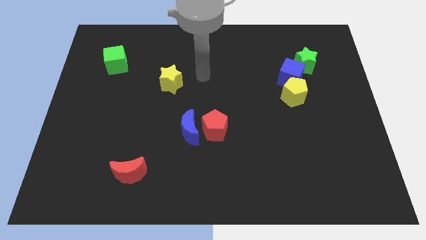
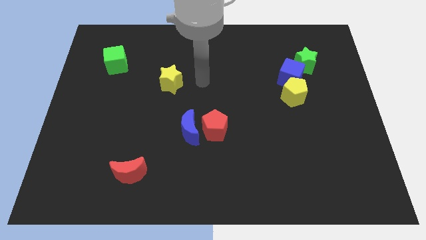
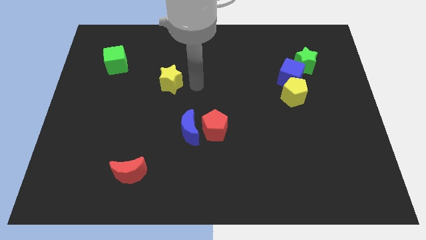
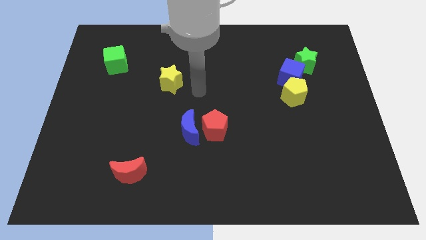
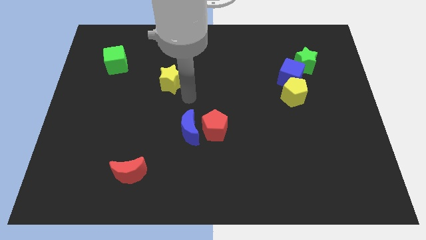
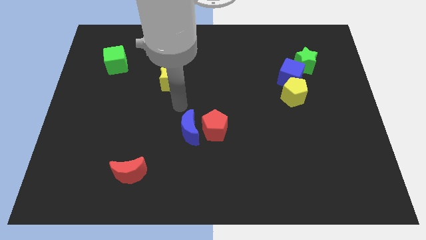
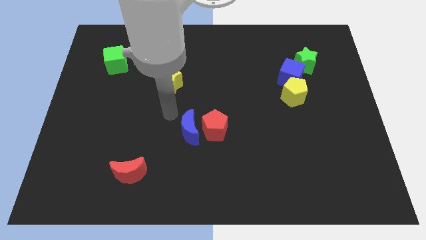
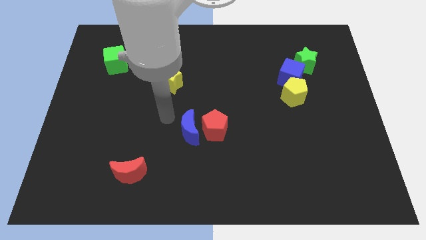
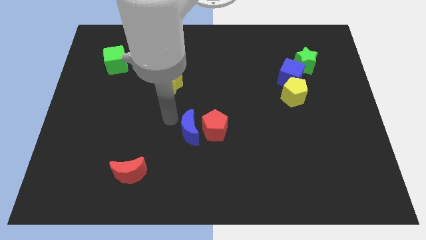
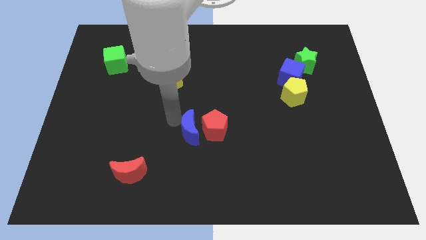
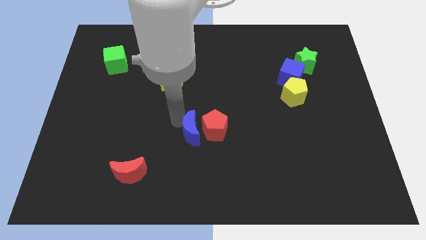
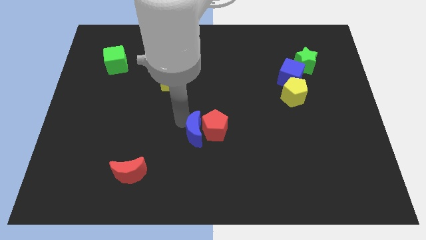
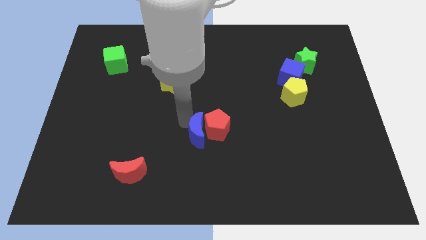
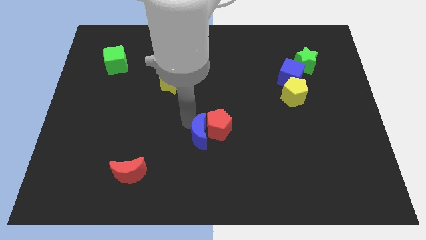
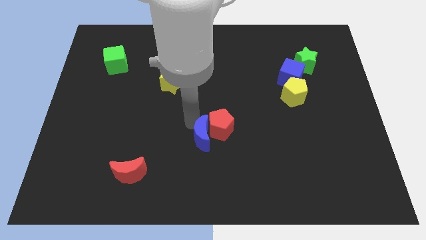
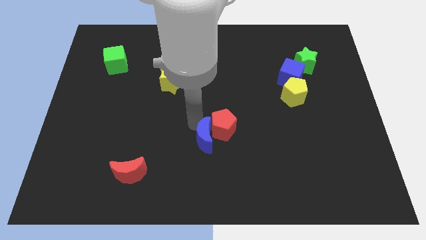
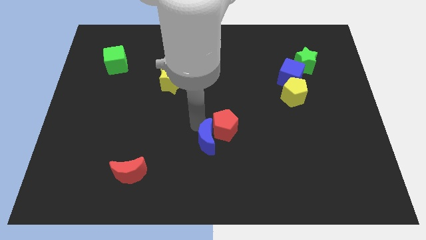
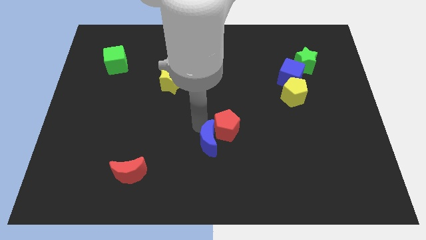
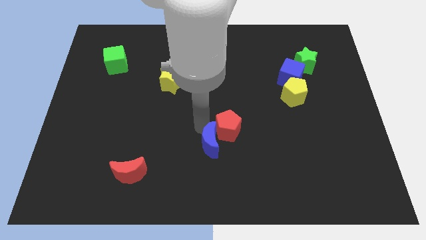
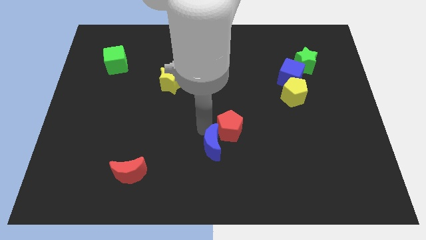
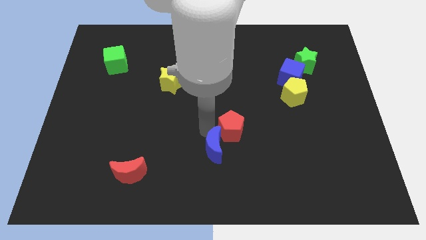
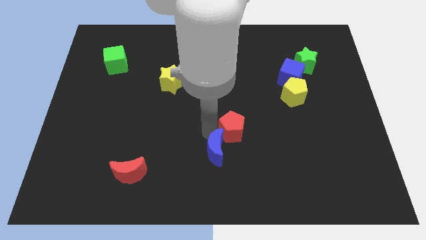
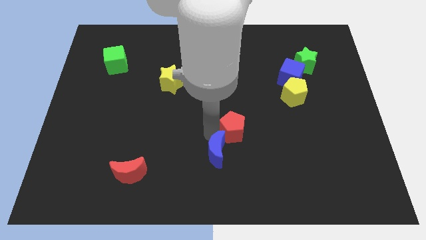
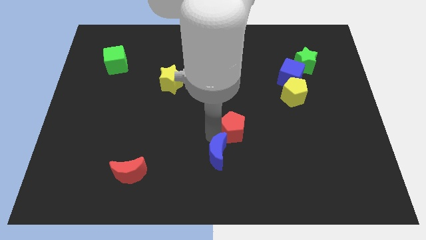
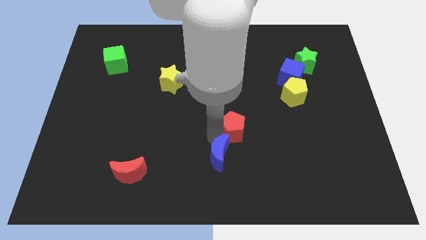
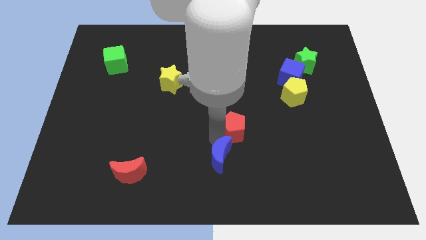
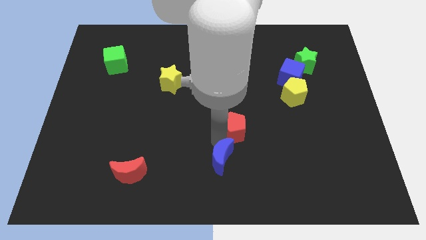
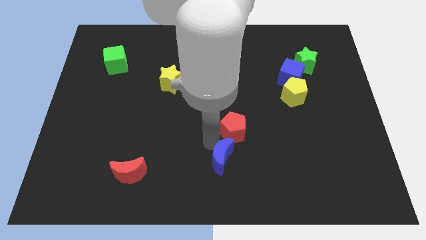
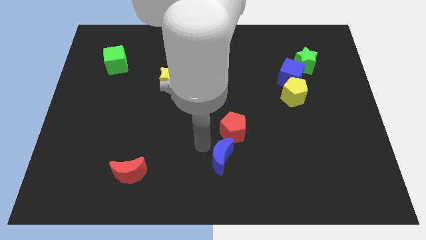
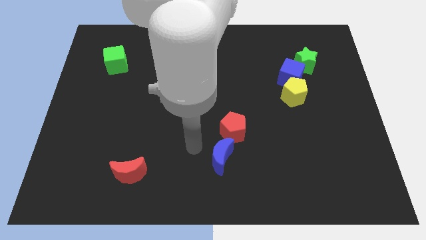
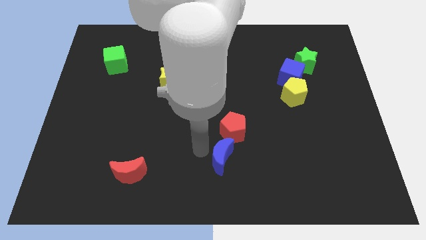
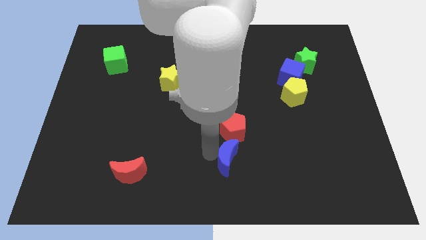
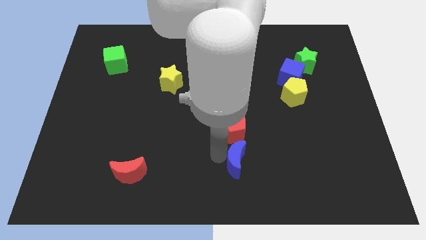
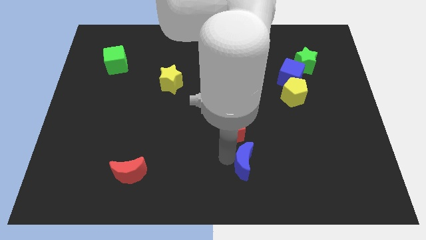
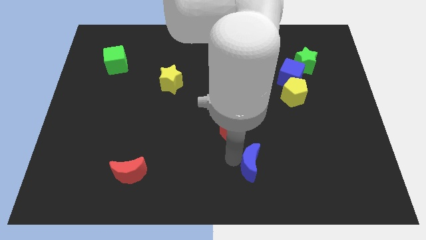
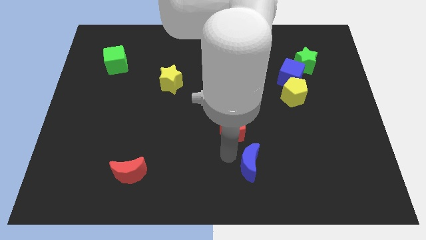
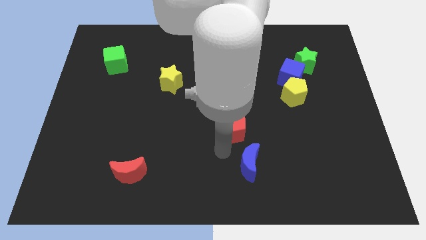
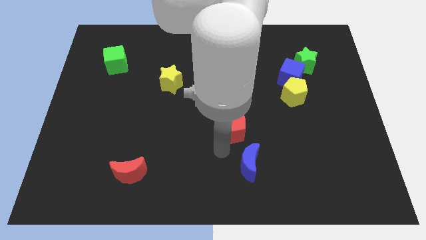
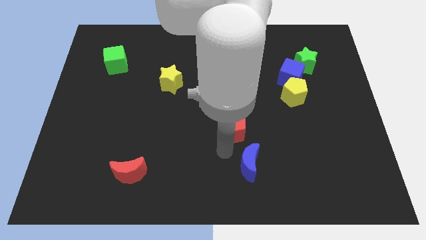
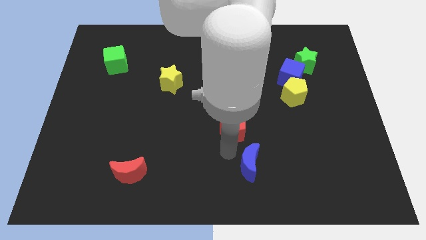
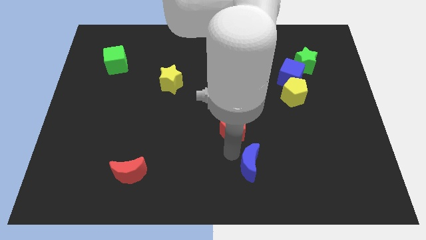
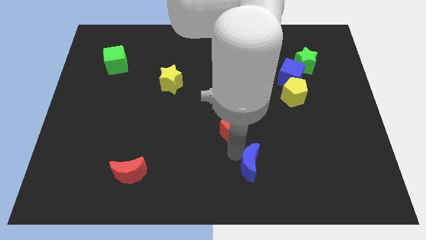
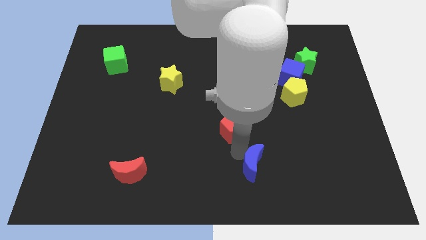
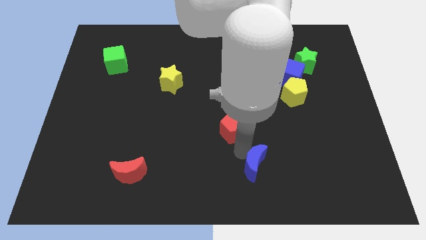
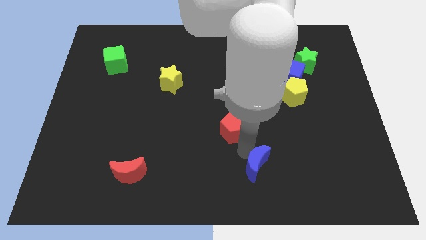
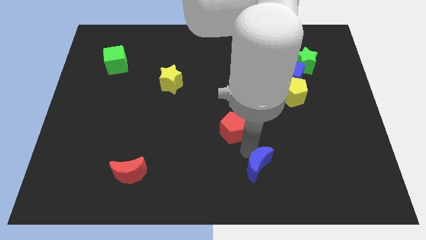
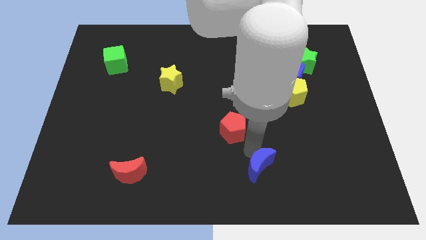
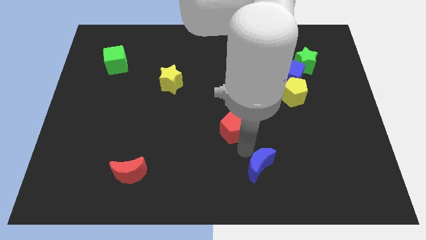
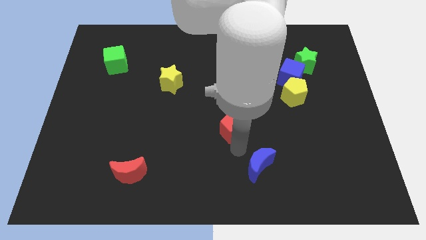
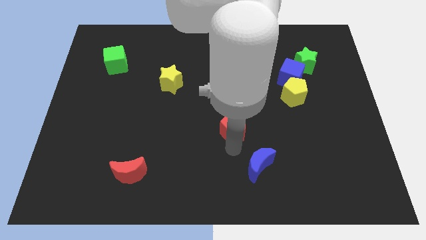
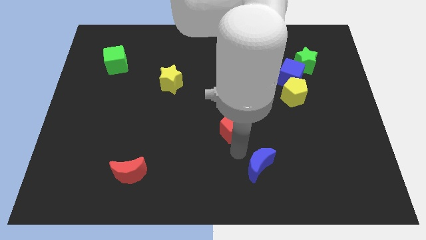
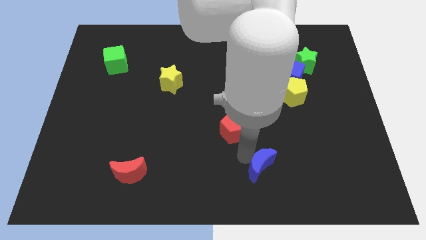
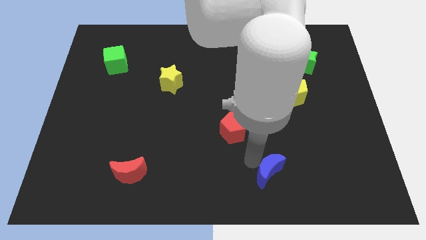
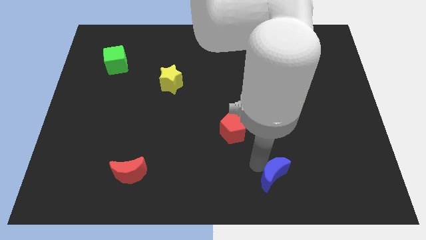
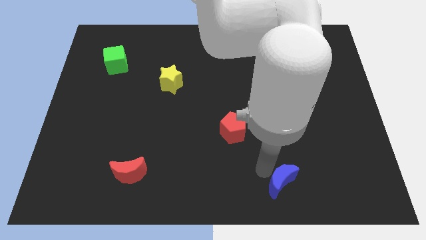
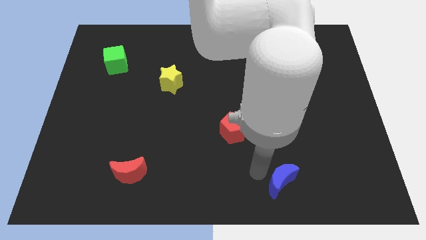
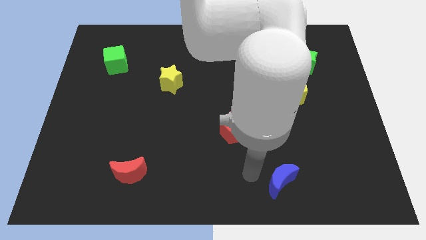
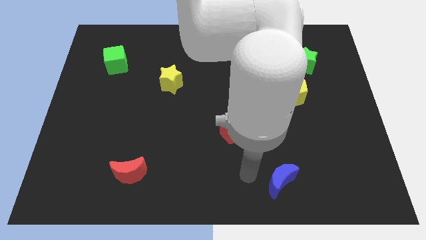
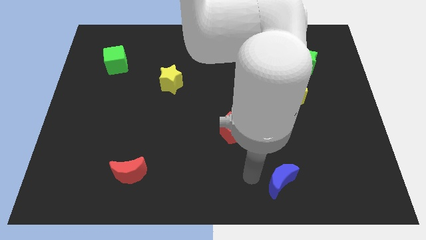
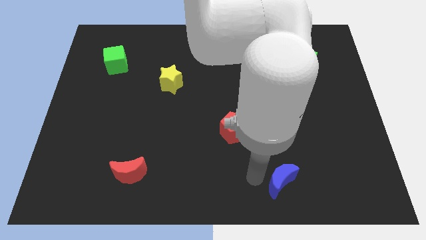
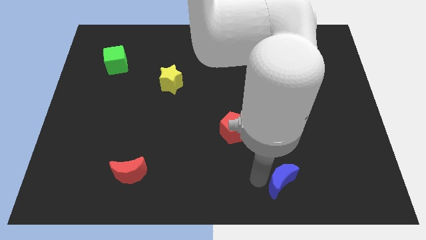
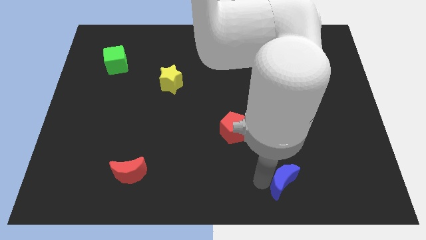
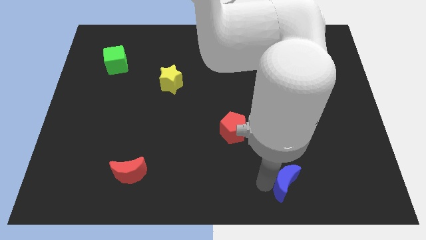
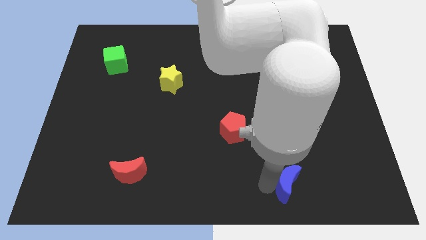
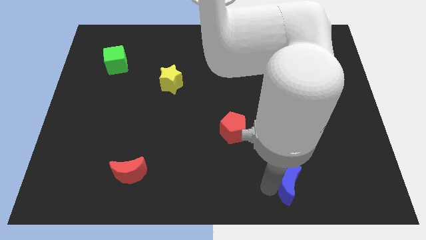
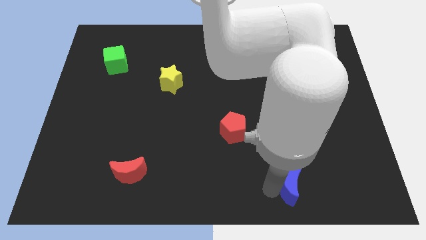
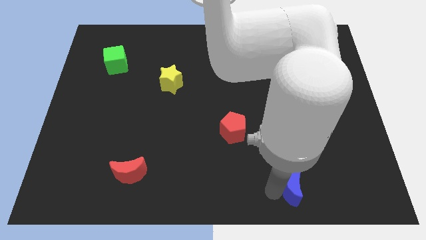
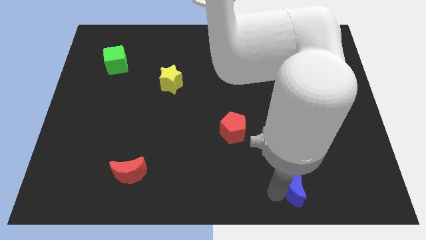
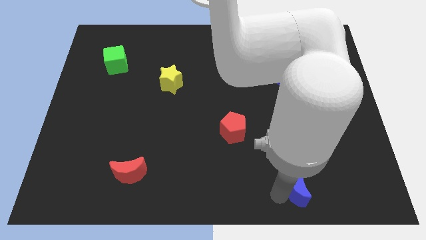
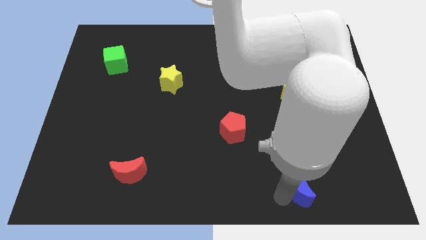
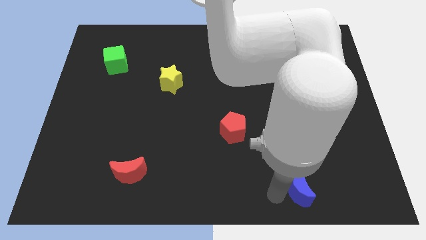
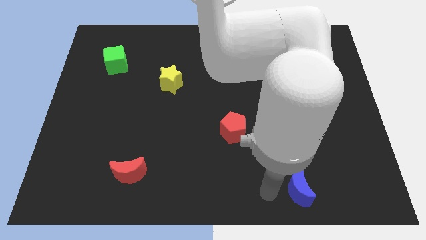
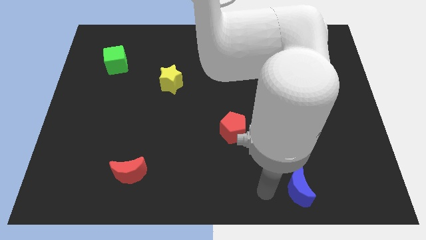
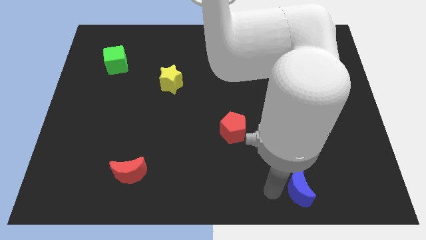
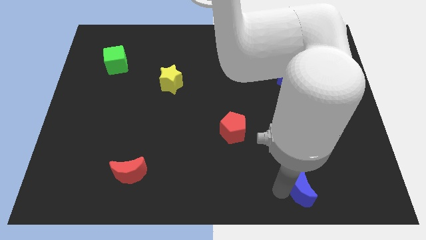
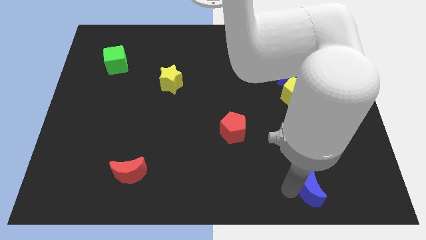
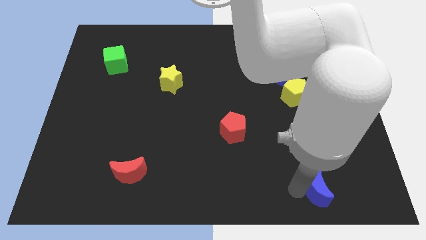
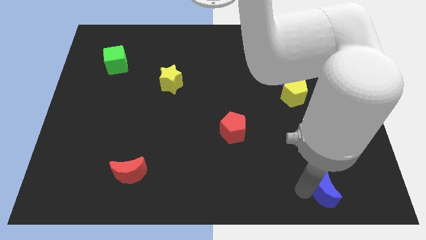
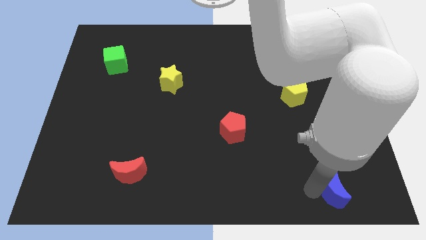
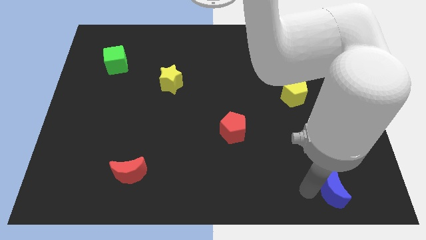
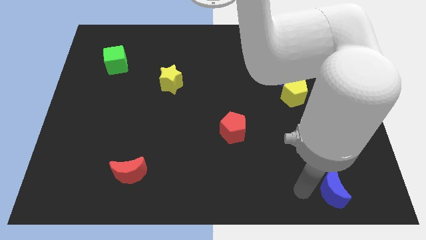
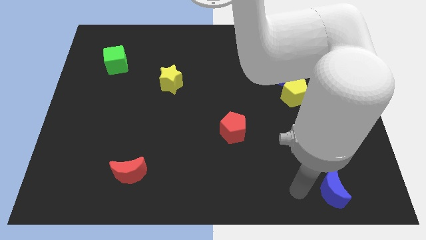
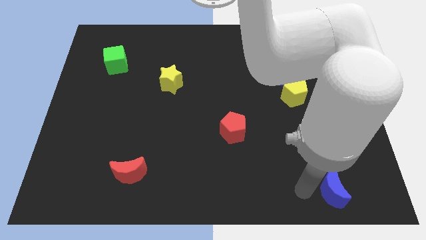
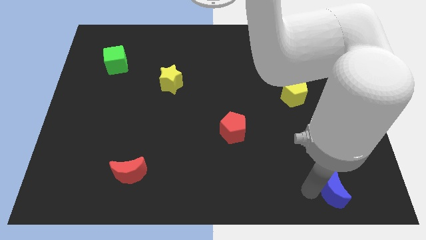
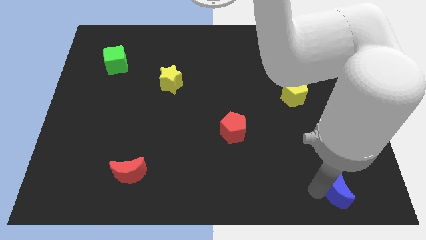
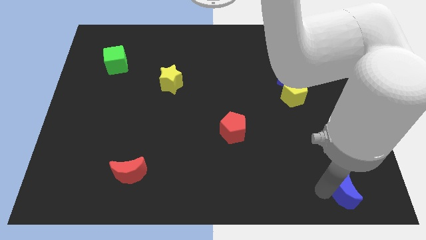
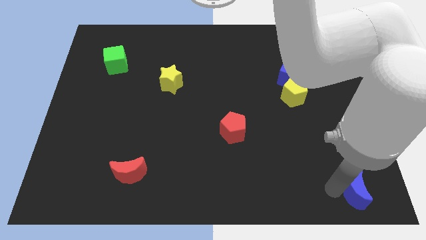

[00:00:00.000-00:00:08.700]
slide the blue moon to the bottom right corner
